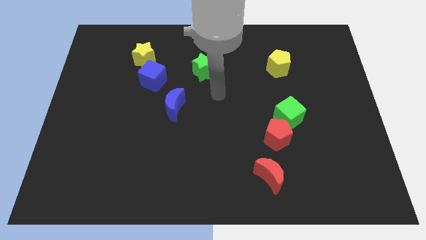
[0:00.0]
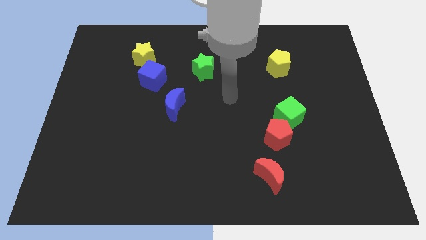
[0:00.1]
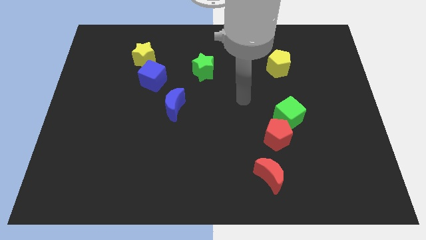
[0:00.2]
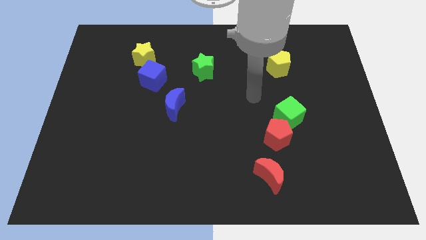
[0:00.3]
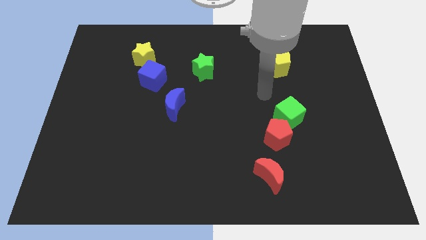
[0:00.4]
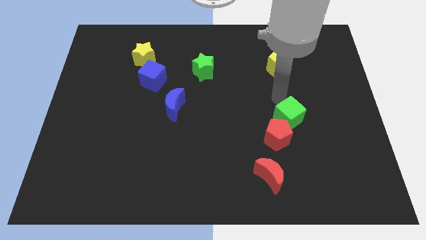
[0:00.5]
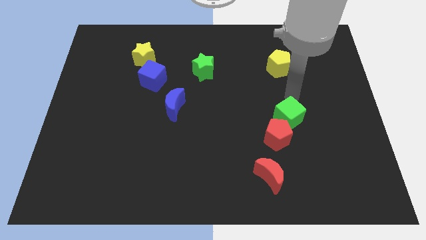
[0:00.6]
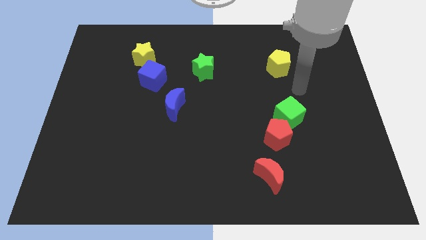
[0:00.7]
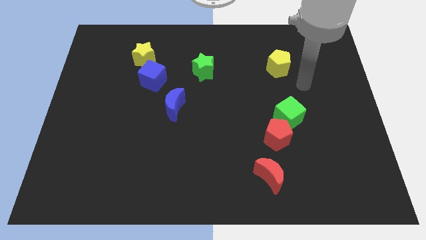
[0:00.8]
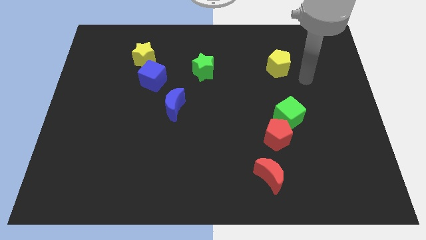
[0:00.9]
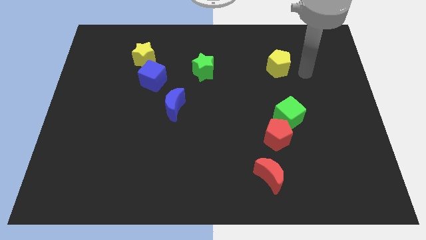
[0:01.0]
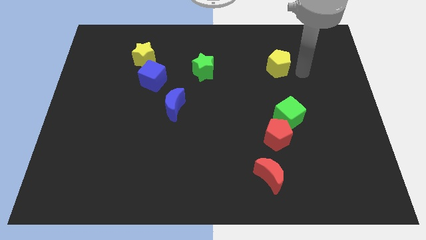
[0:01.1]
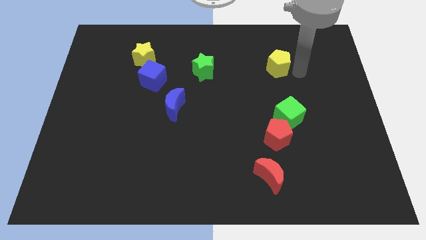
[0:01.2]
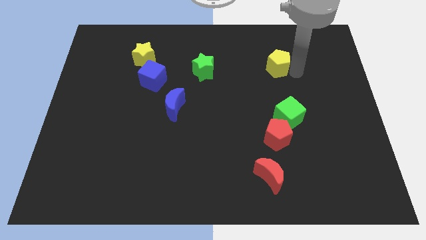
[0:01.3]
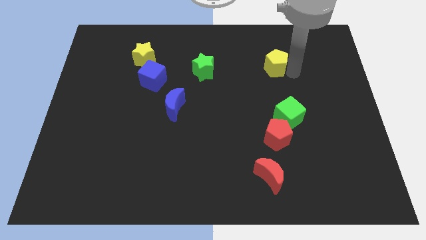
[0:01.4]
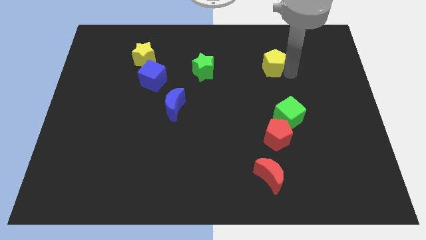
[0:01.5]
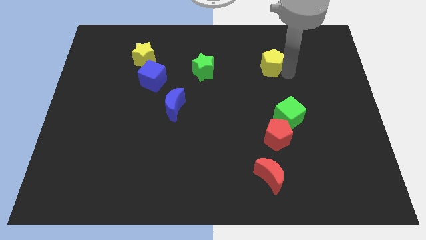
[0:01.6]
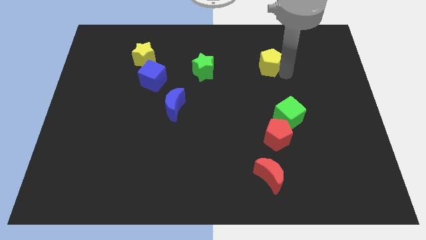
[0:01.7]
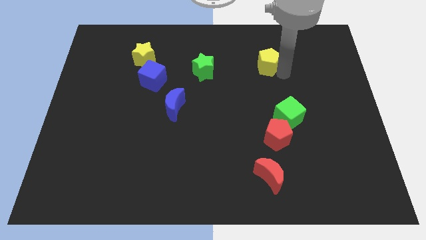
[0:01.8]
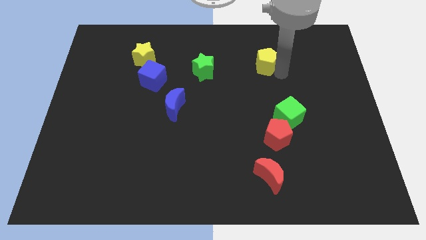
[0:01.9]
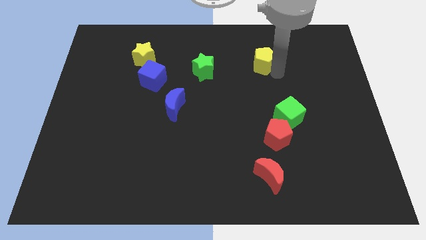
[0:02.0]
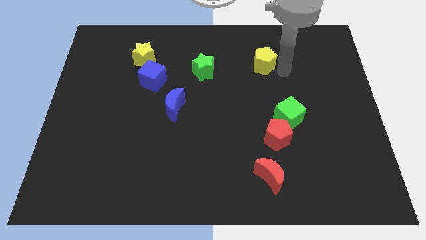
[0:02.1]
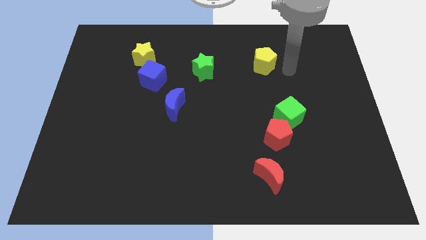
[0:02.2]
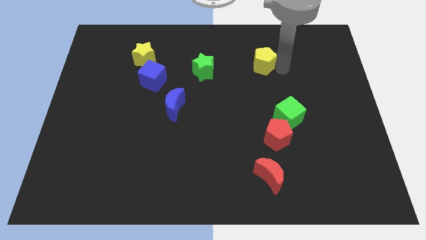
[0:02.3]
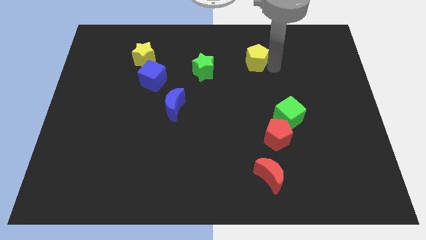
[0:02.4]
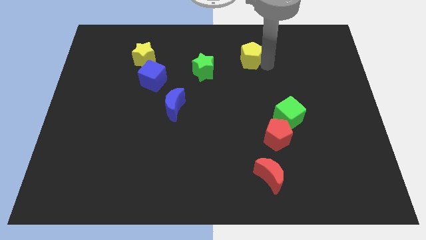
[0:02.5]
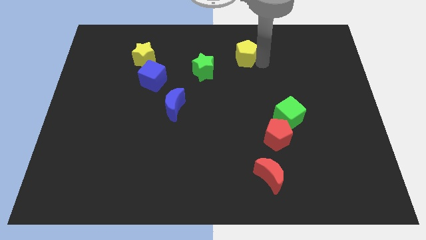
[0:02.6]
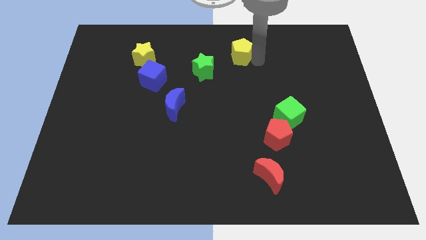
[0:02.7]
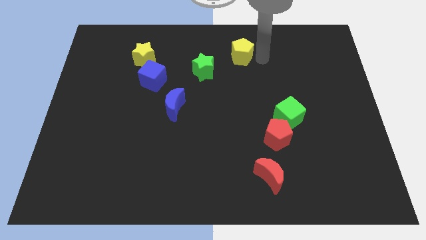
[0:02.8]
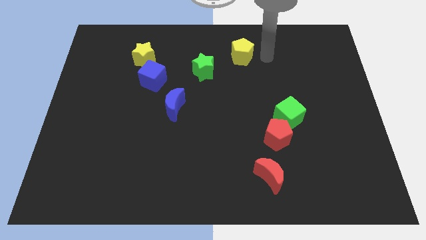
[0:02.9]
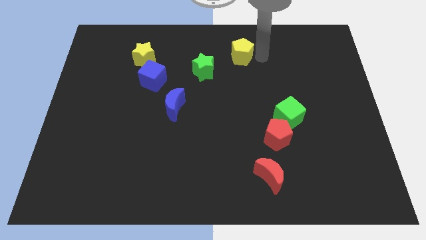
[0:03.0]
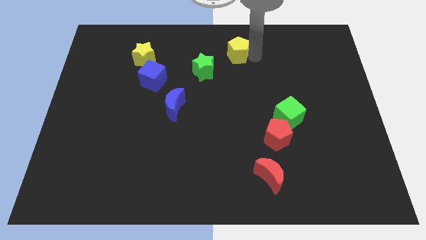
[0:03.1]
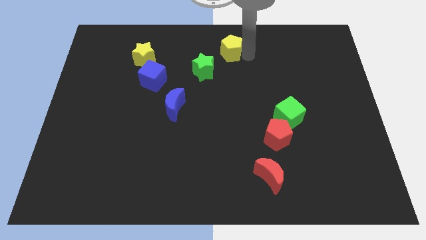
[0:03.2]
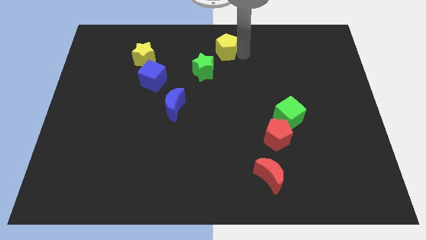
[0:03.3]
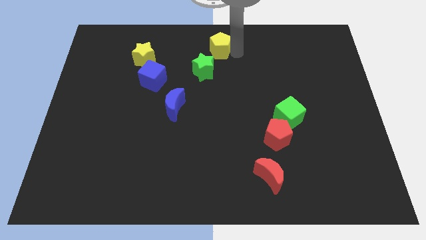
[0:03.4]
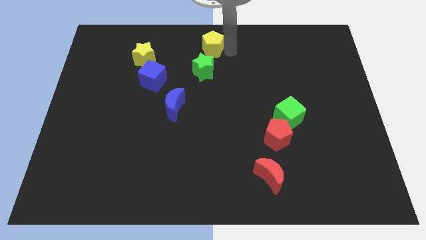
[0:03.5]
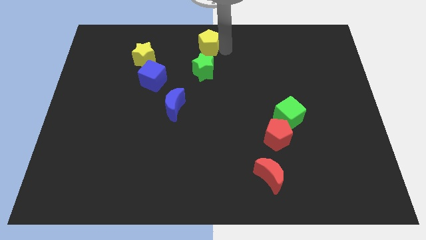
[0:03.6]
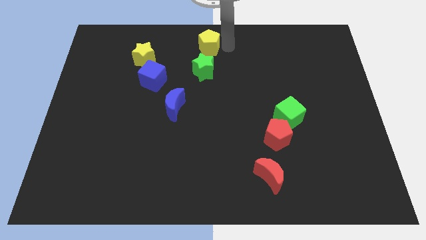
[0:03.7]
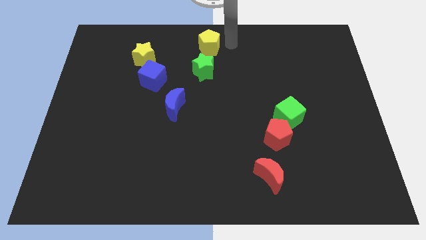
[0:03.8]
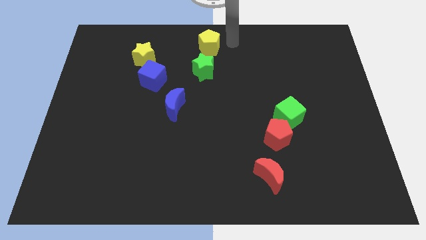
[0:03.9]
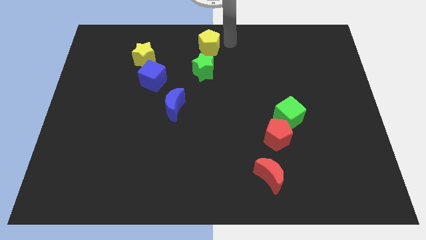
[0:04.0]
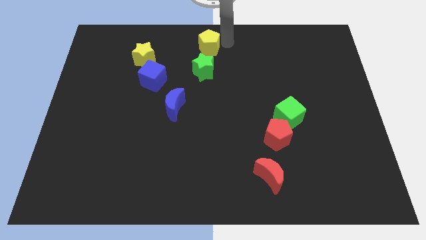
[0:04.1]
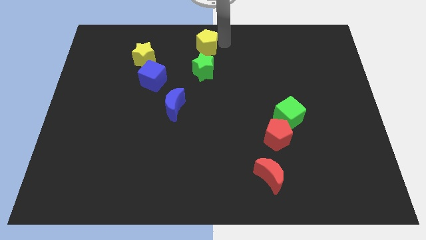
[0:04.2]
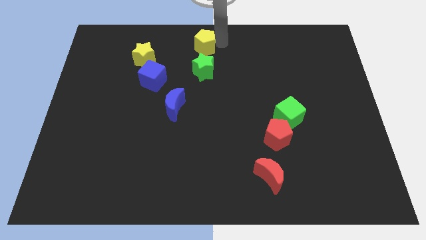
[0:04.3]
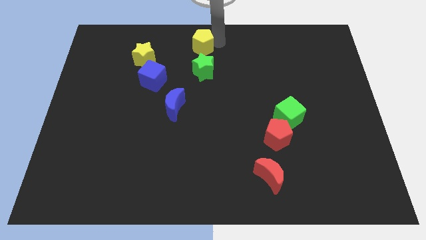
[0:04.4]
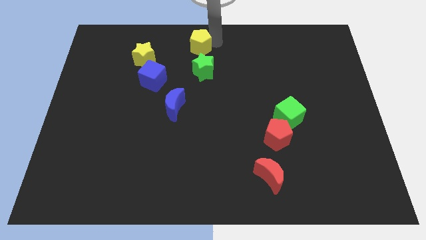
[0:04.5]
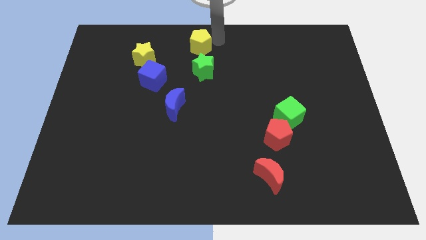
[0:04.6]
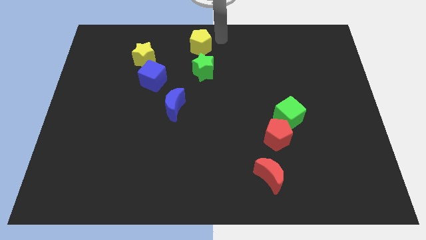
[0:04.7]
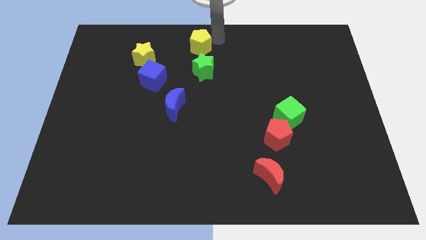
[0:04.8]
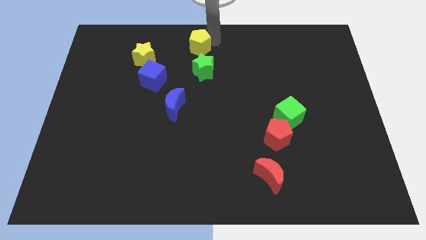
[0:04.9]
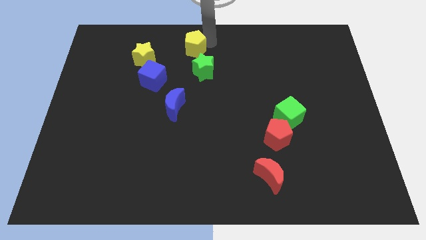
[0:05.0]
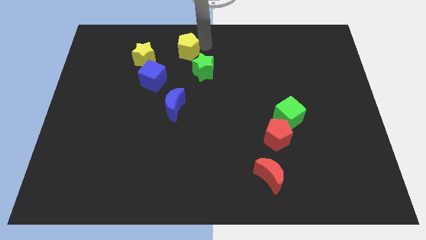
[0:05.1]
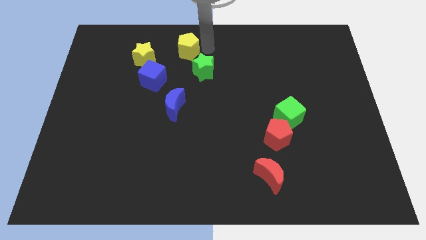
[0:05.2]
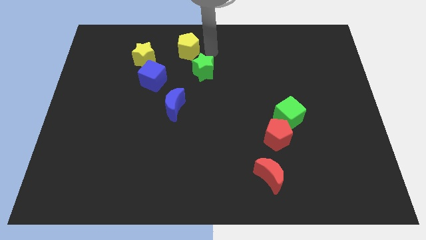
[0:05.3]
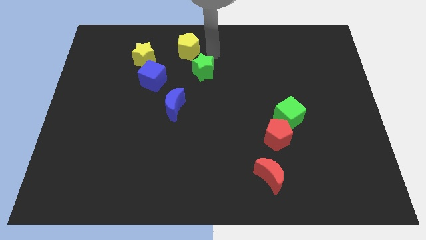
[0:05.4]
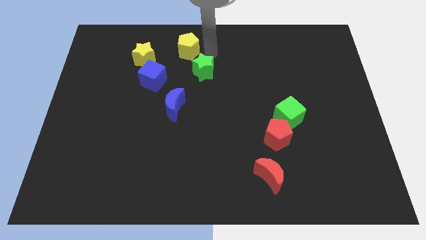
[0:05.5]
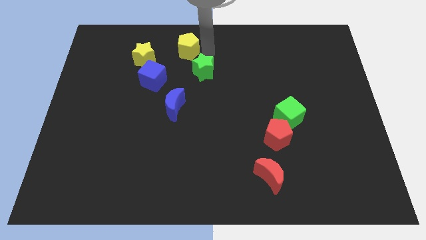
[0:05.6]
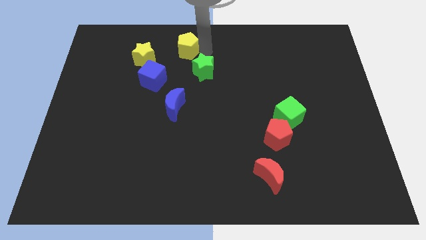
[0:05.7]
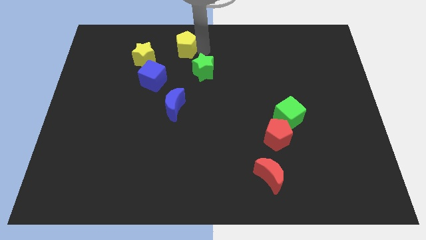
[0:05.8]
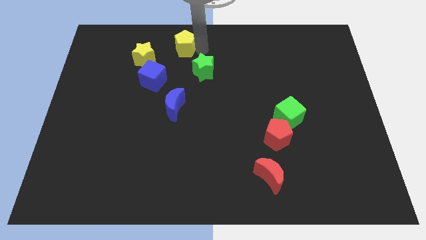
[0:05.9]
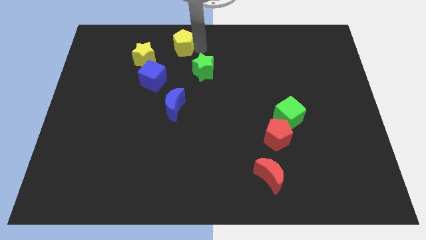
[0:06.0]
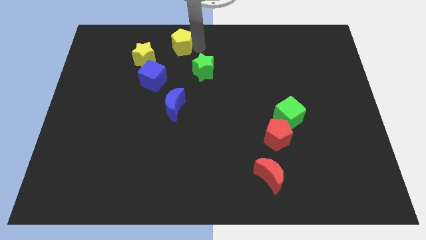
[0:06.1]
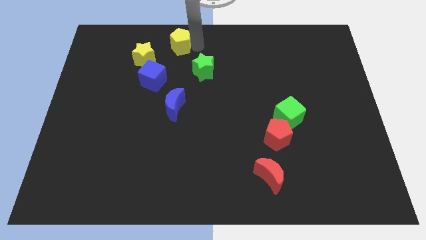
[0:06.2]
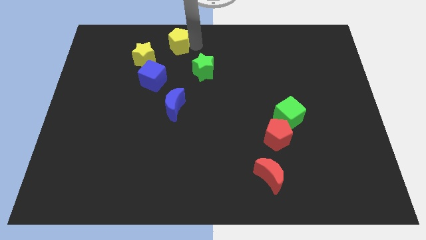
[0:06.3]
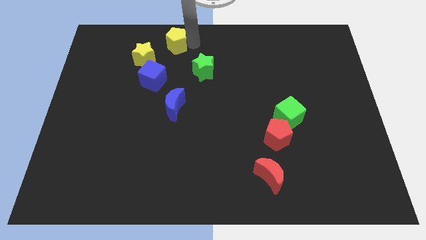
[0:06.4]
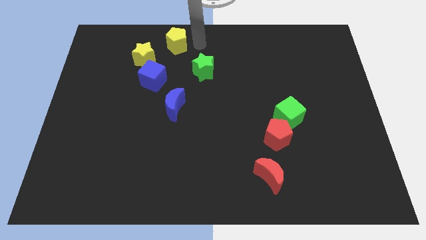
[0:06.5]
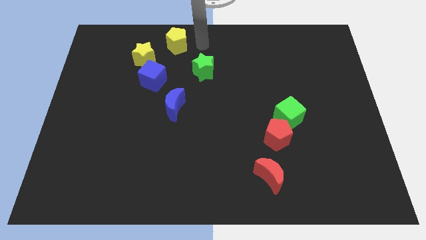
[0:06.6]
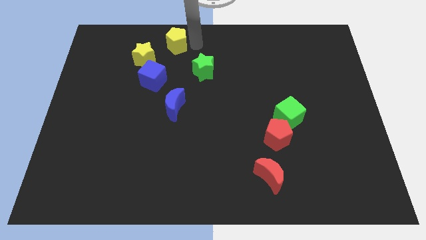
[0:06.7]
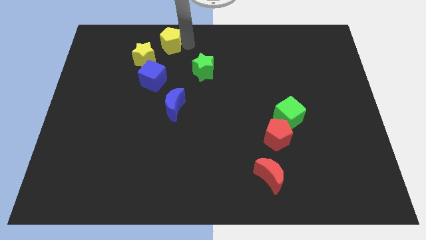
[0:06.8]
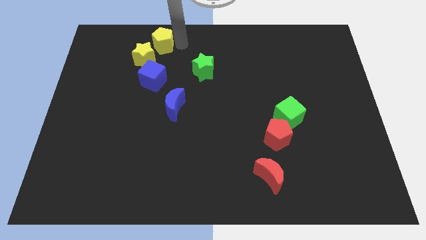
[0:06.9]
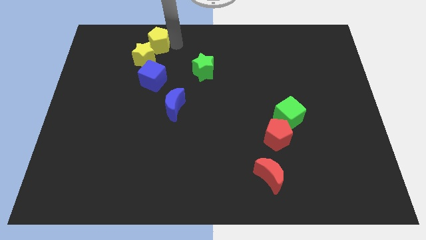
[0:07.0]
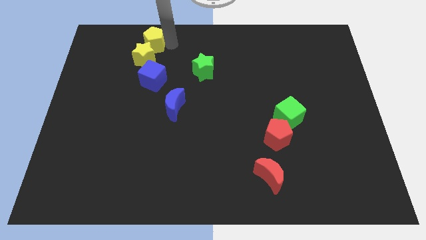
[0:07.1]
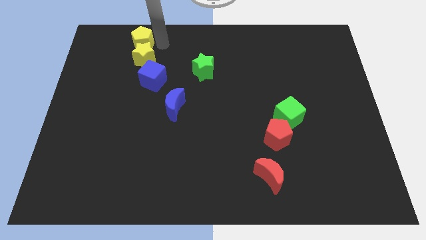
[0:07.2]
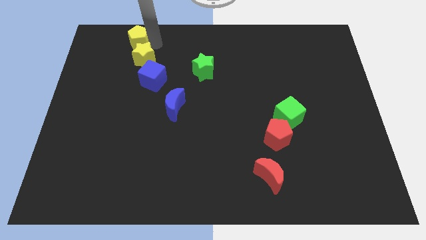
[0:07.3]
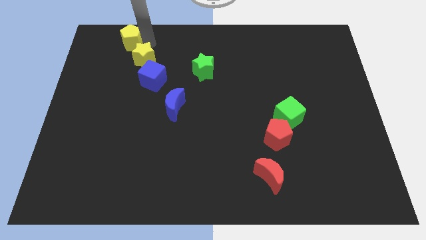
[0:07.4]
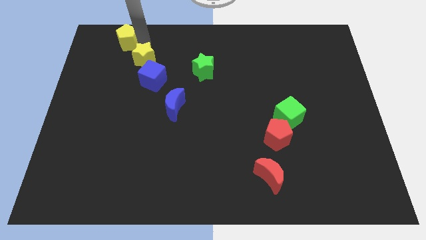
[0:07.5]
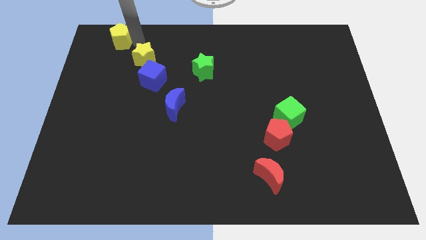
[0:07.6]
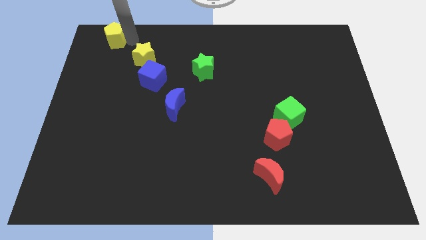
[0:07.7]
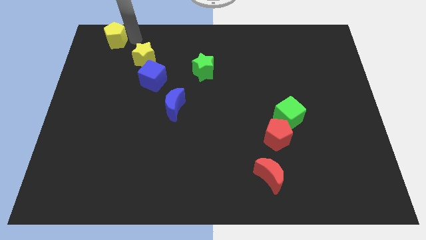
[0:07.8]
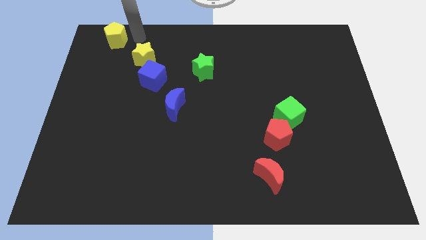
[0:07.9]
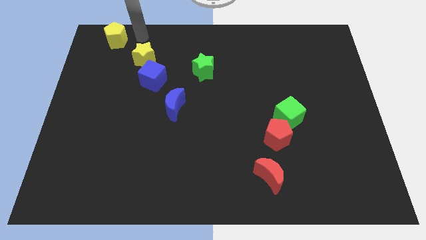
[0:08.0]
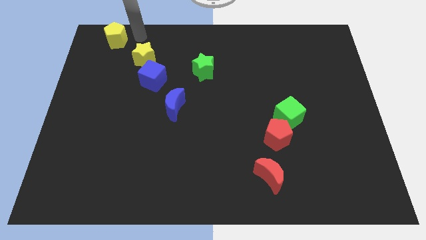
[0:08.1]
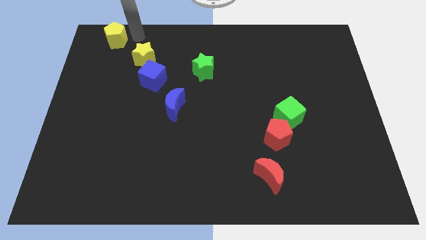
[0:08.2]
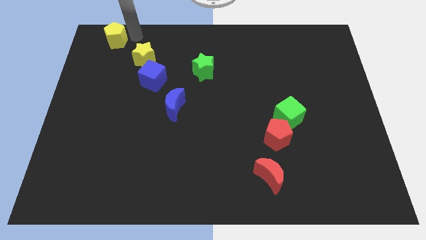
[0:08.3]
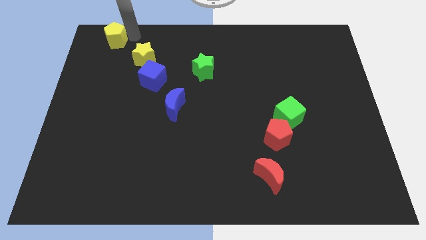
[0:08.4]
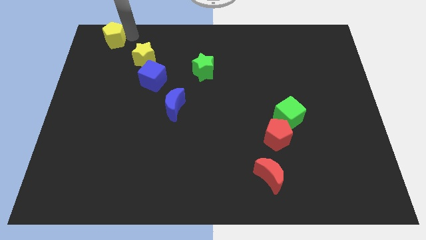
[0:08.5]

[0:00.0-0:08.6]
slide the yellow pentagon to the top left corner
